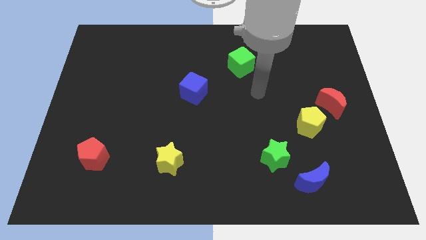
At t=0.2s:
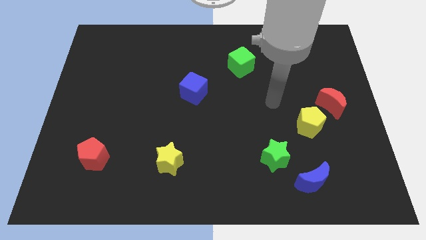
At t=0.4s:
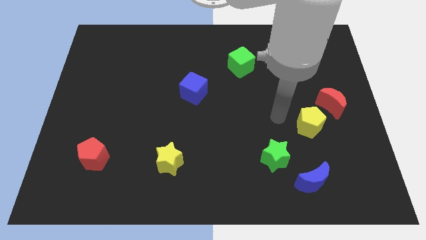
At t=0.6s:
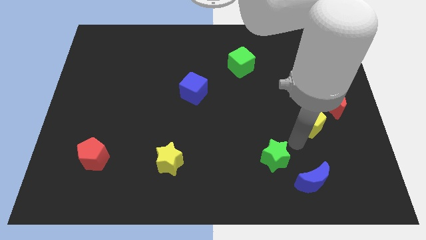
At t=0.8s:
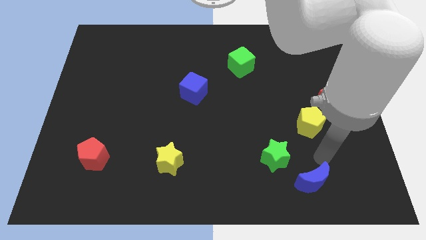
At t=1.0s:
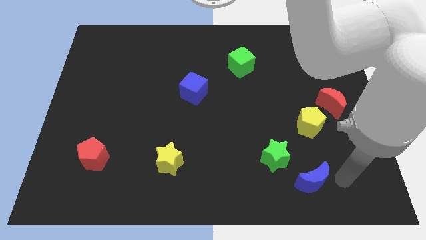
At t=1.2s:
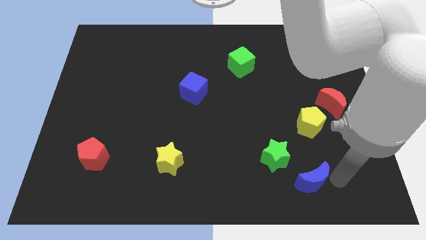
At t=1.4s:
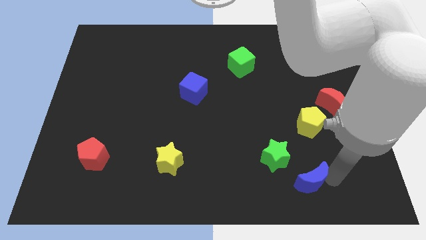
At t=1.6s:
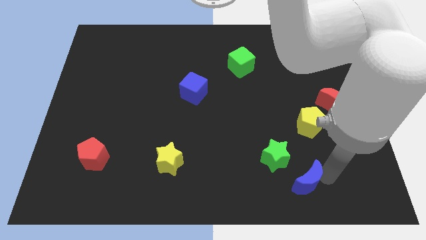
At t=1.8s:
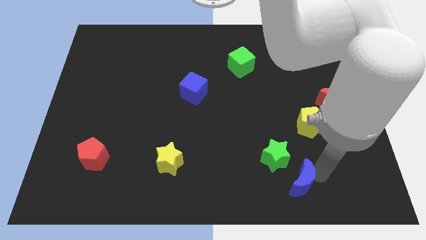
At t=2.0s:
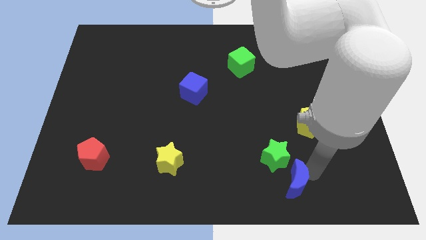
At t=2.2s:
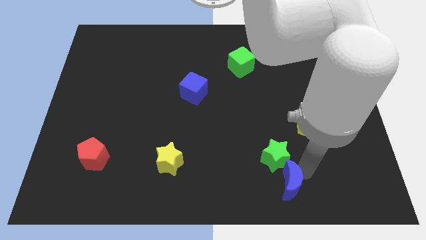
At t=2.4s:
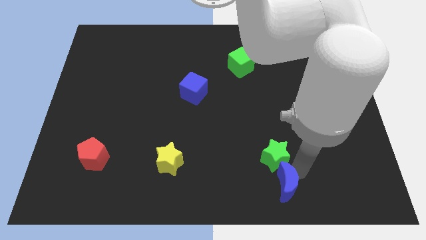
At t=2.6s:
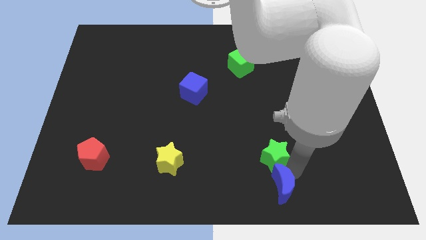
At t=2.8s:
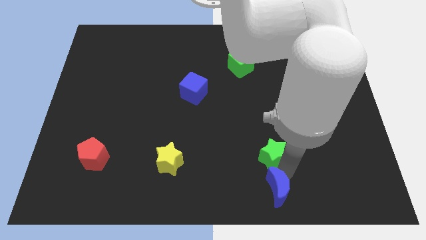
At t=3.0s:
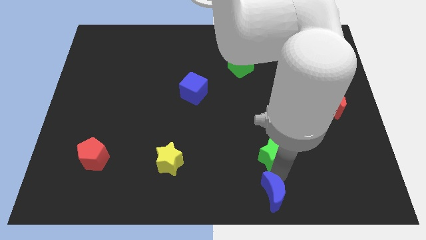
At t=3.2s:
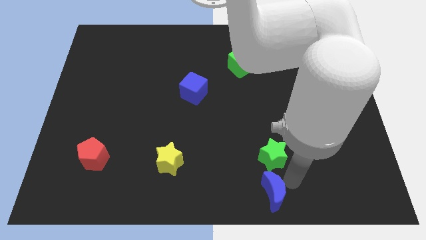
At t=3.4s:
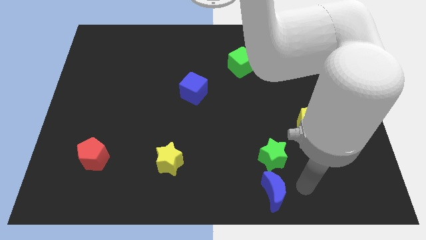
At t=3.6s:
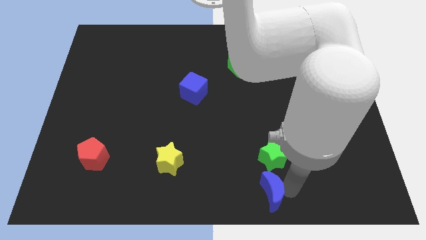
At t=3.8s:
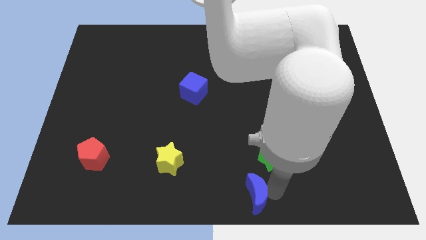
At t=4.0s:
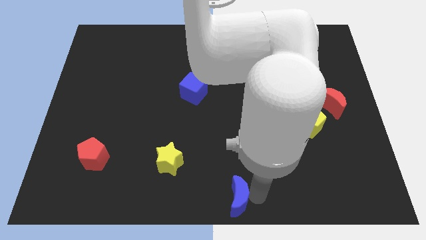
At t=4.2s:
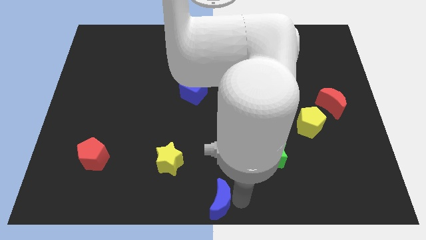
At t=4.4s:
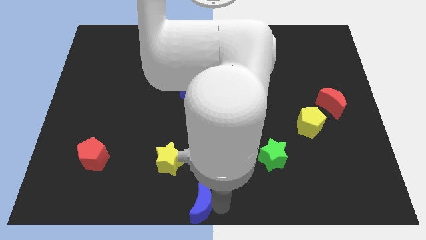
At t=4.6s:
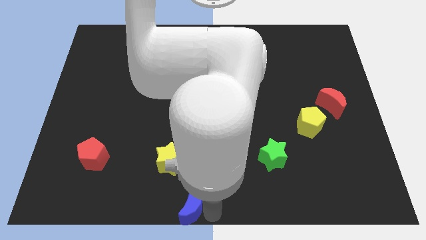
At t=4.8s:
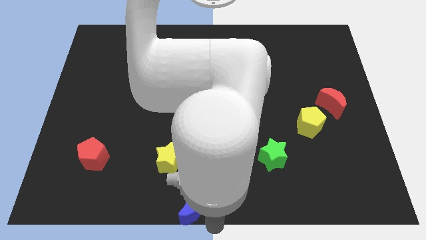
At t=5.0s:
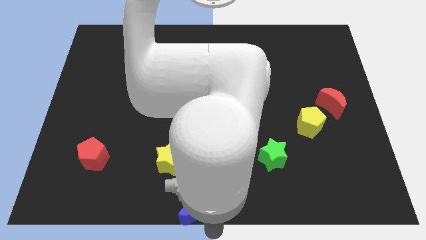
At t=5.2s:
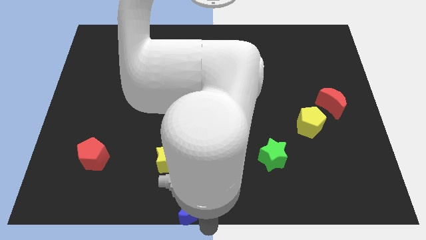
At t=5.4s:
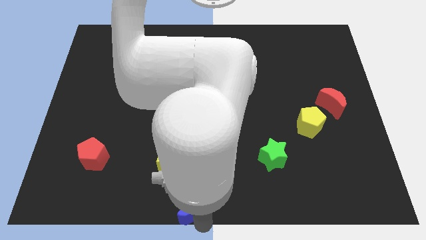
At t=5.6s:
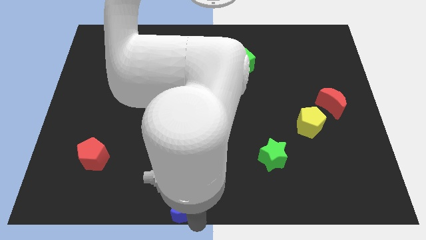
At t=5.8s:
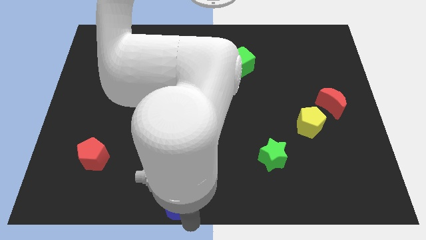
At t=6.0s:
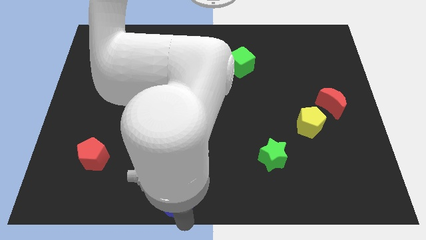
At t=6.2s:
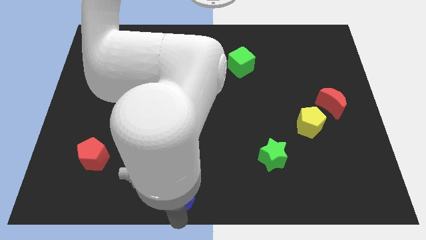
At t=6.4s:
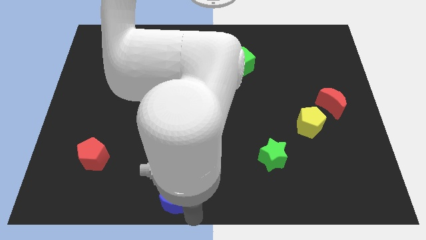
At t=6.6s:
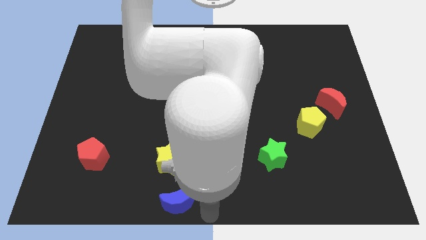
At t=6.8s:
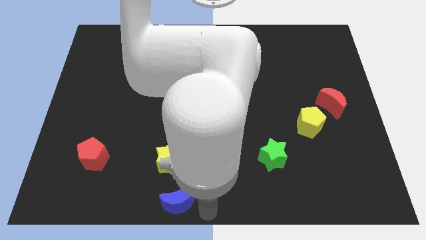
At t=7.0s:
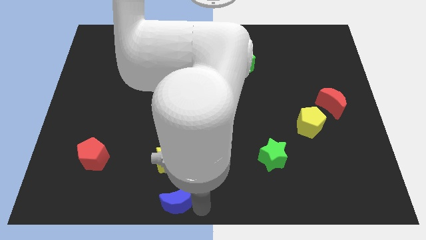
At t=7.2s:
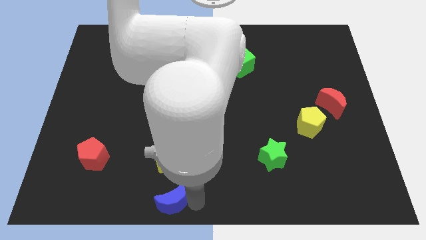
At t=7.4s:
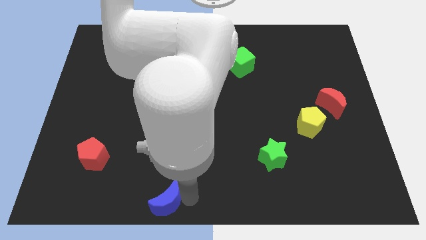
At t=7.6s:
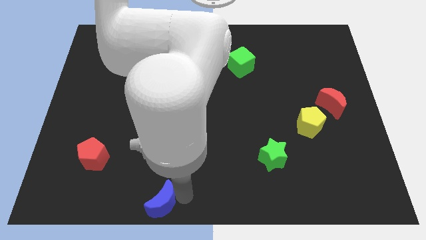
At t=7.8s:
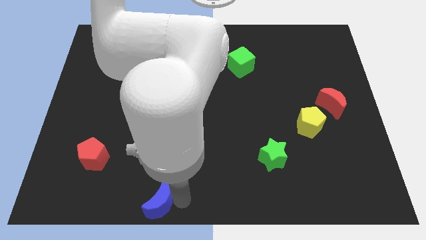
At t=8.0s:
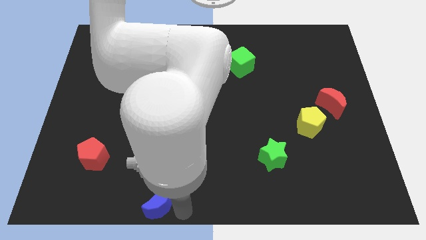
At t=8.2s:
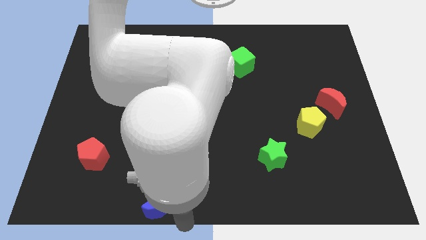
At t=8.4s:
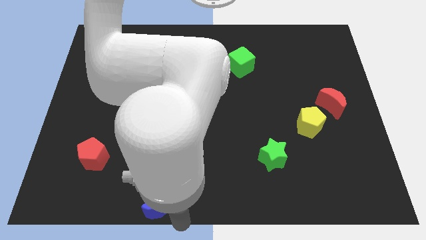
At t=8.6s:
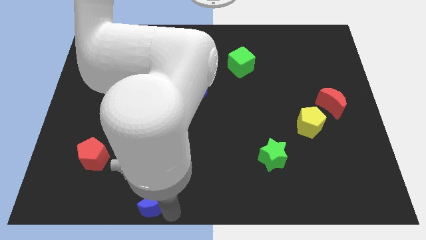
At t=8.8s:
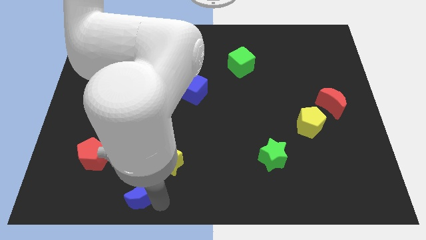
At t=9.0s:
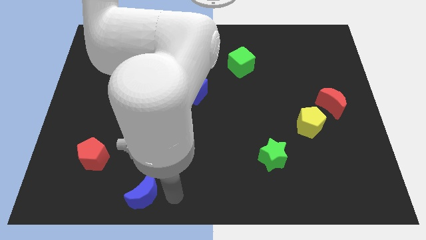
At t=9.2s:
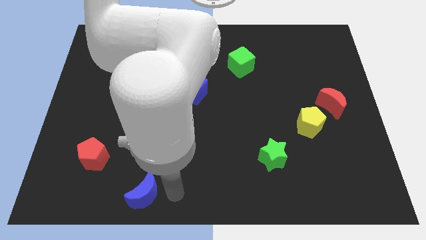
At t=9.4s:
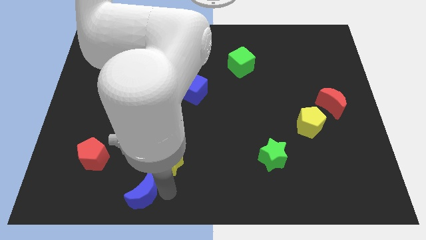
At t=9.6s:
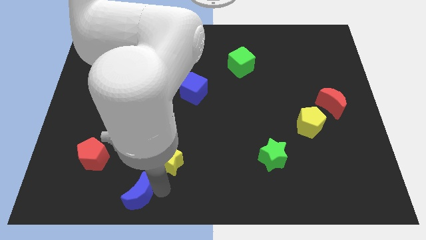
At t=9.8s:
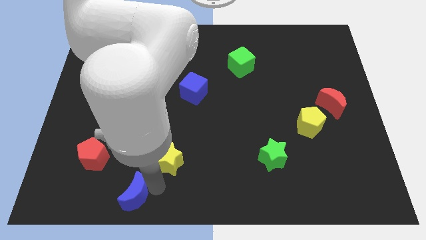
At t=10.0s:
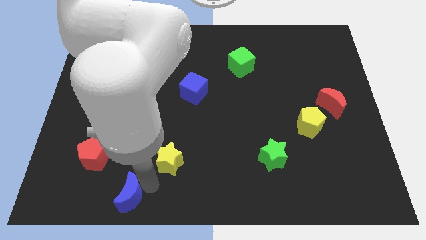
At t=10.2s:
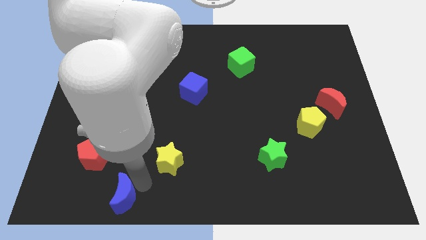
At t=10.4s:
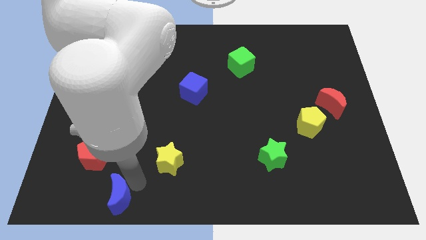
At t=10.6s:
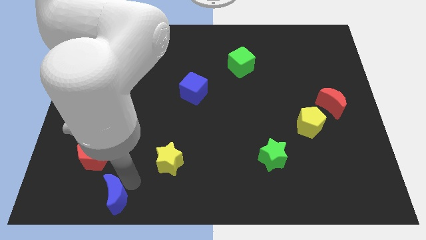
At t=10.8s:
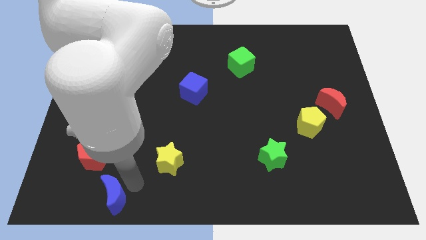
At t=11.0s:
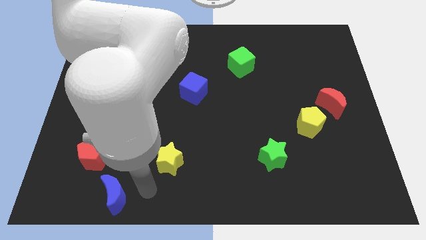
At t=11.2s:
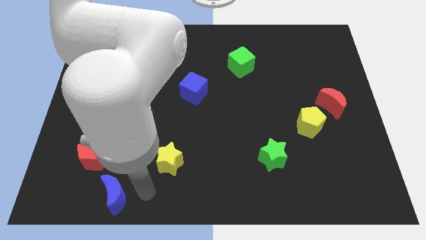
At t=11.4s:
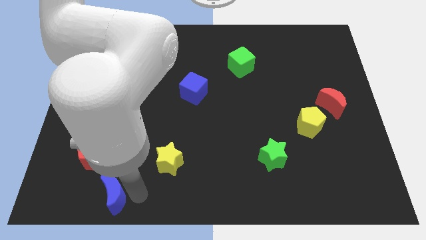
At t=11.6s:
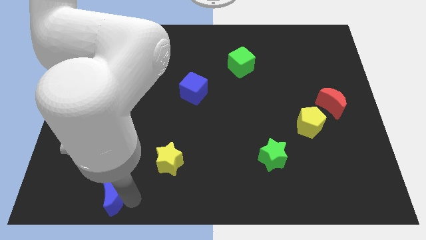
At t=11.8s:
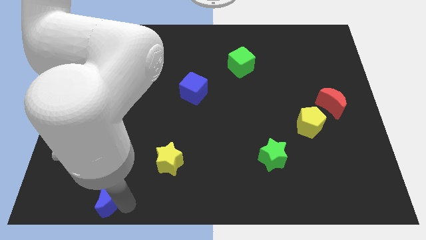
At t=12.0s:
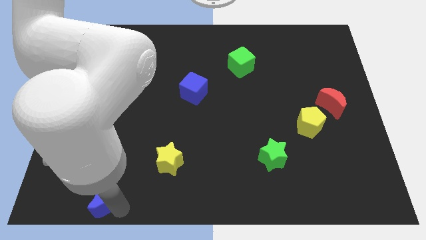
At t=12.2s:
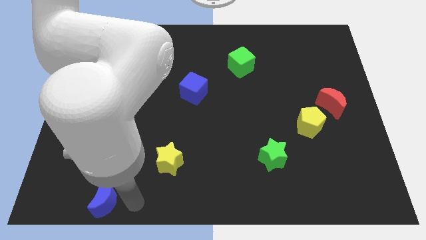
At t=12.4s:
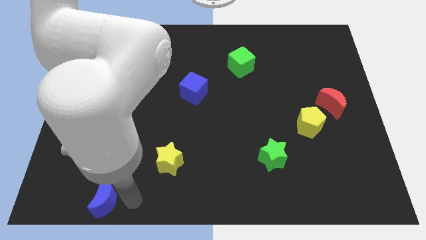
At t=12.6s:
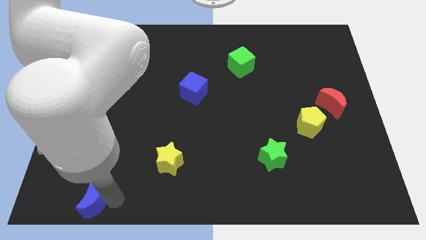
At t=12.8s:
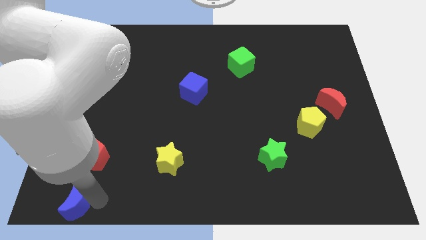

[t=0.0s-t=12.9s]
slide the blue moon to the lower left corner
